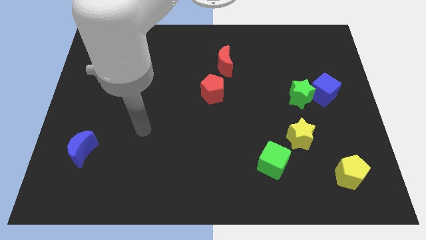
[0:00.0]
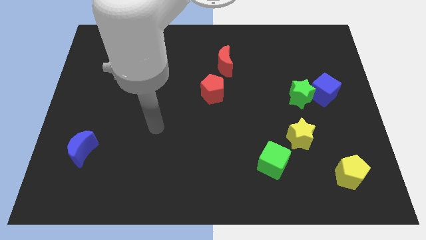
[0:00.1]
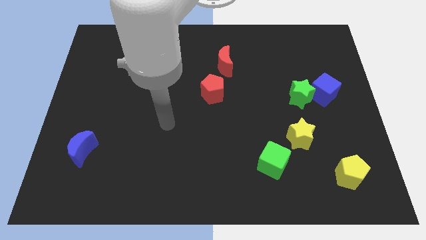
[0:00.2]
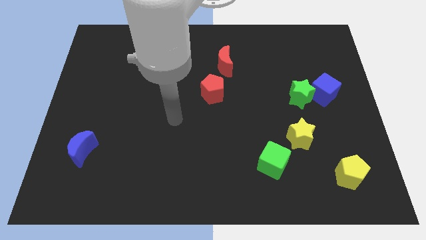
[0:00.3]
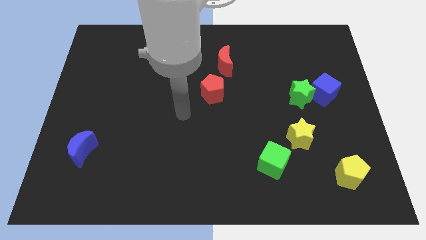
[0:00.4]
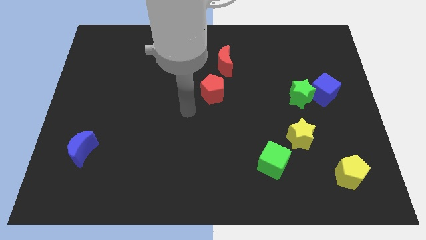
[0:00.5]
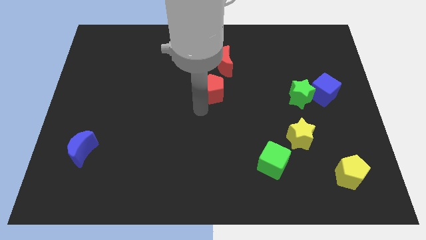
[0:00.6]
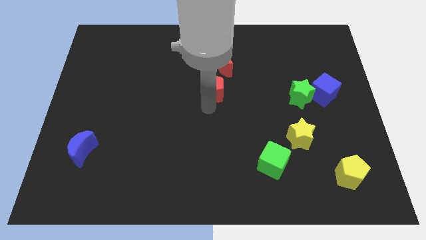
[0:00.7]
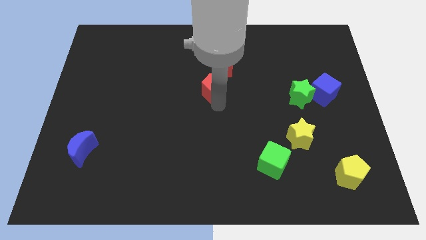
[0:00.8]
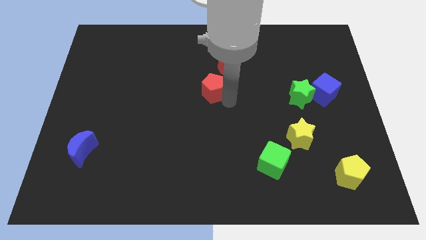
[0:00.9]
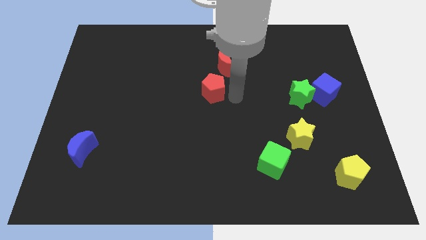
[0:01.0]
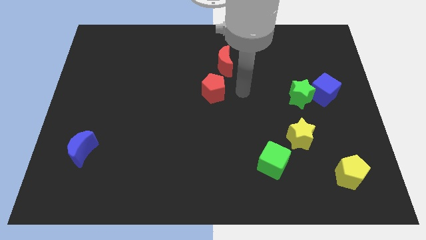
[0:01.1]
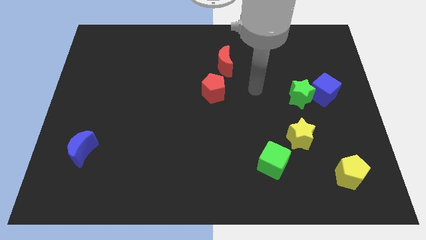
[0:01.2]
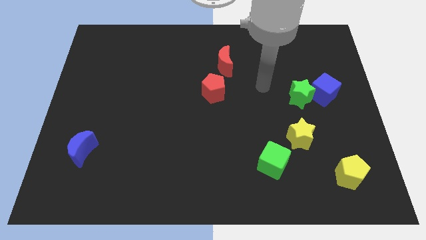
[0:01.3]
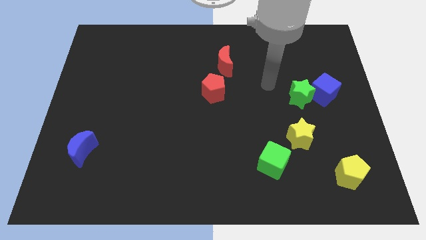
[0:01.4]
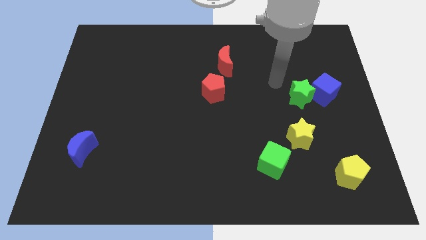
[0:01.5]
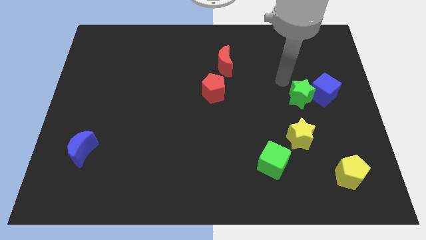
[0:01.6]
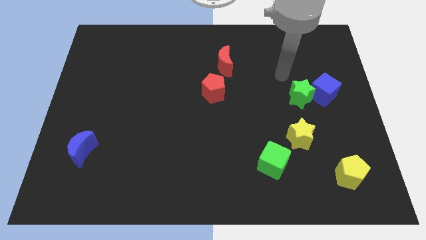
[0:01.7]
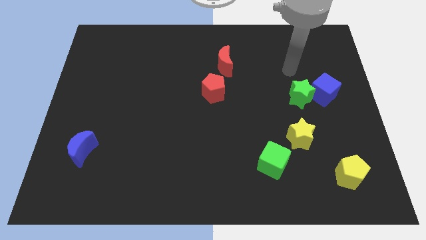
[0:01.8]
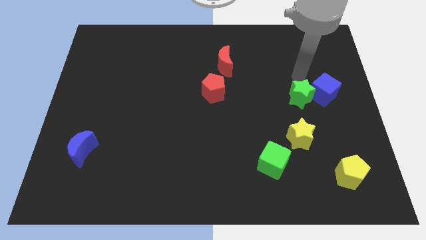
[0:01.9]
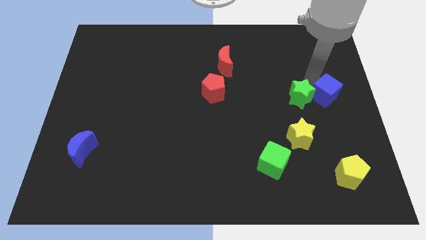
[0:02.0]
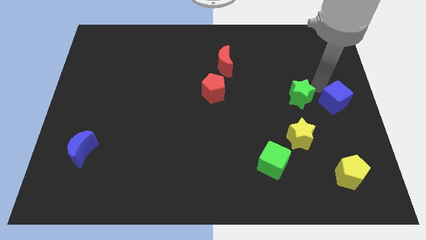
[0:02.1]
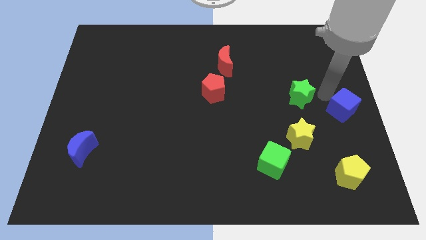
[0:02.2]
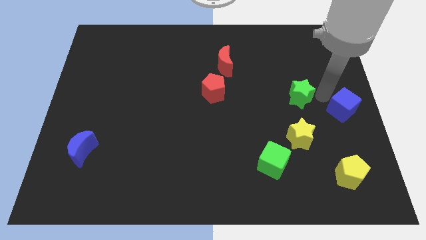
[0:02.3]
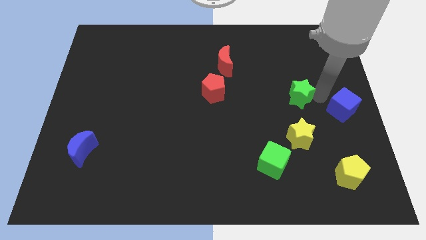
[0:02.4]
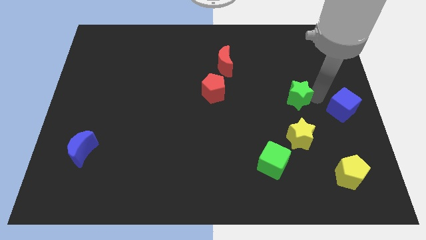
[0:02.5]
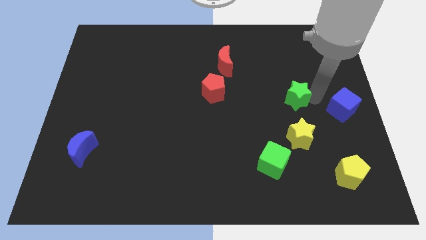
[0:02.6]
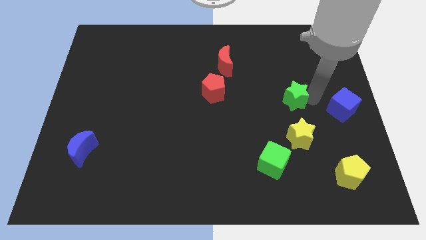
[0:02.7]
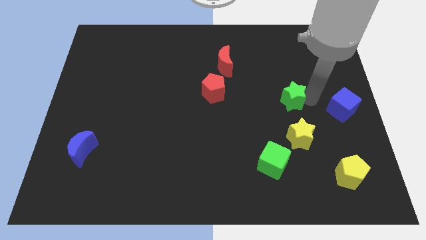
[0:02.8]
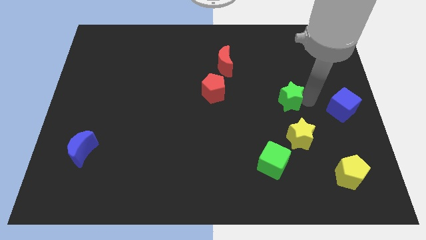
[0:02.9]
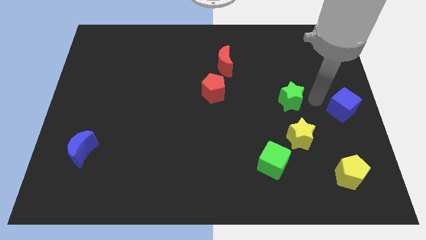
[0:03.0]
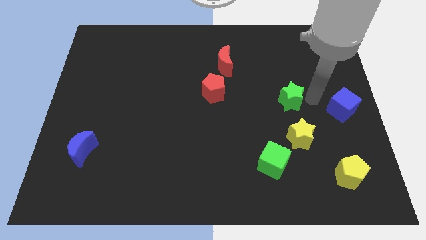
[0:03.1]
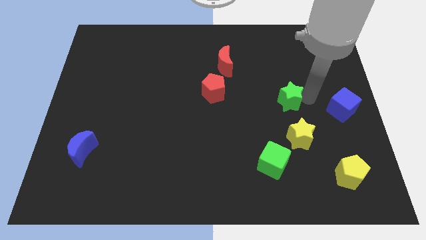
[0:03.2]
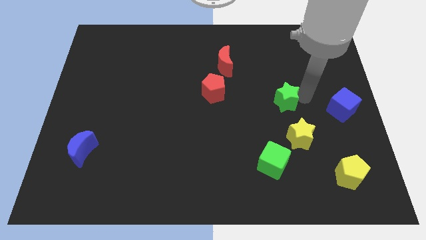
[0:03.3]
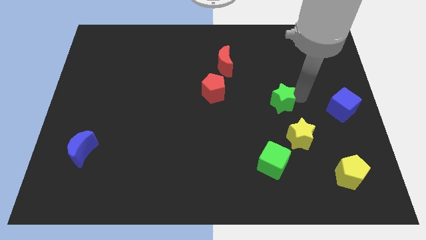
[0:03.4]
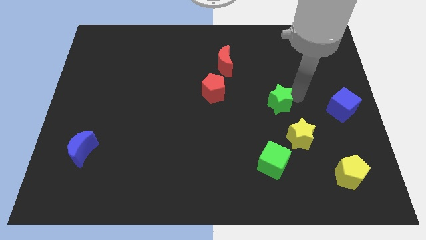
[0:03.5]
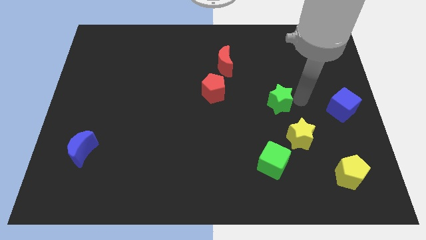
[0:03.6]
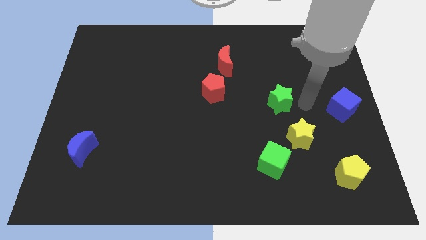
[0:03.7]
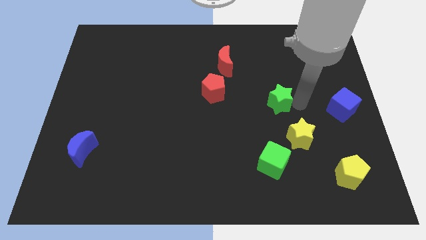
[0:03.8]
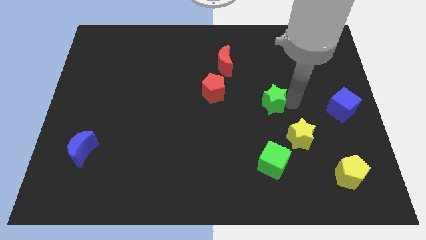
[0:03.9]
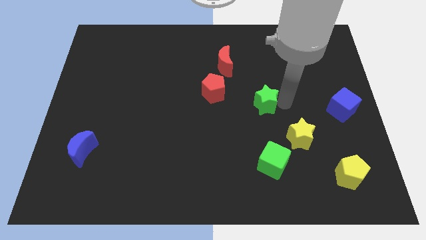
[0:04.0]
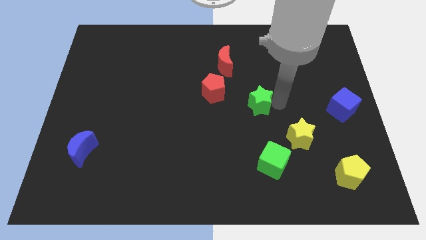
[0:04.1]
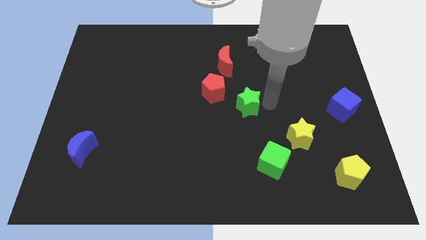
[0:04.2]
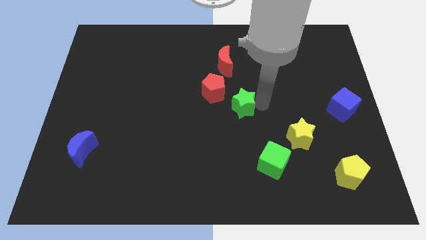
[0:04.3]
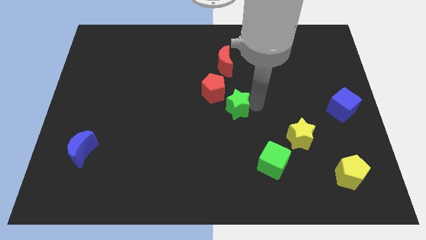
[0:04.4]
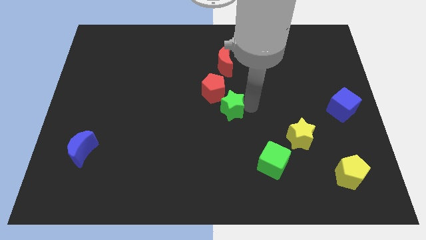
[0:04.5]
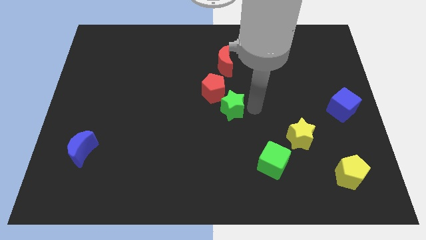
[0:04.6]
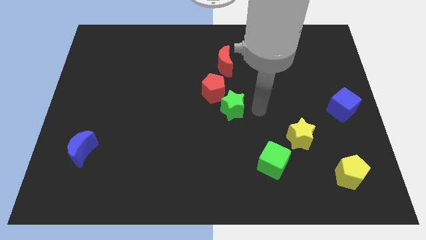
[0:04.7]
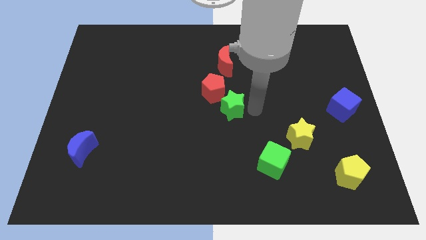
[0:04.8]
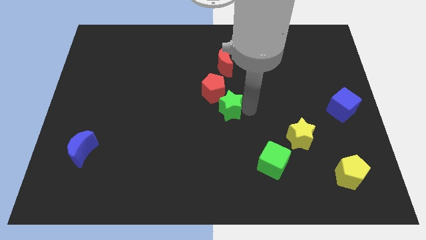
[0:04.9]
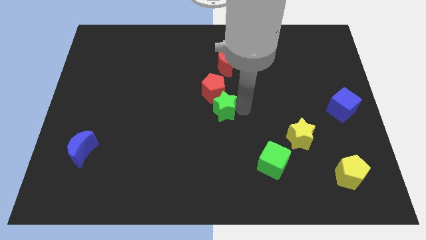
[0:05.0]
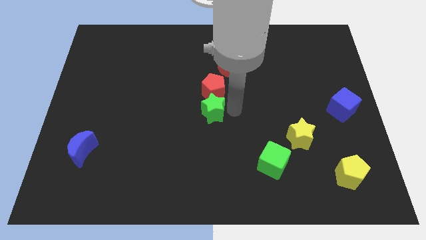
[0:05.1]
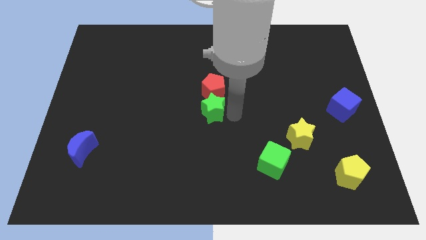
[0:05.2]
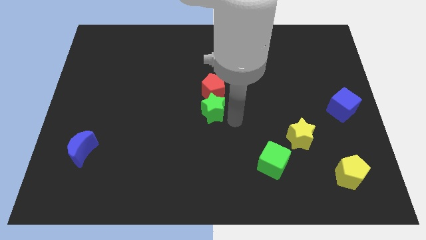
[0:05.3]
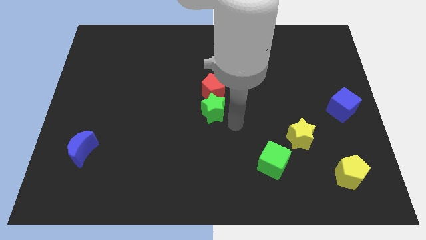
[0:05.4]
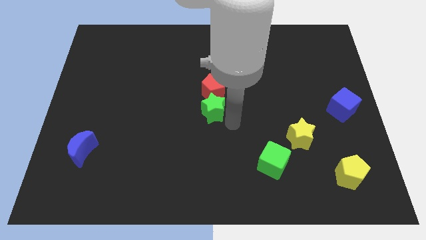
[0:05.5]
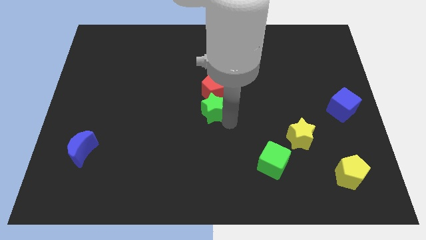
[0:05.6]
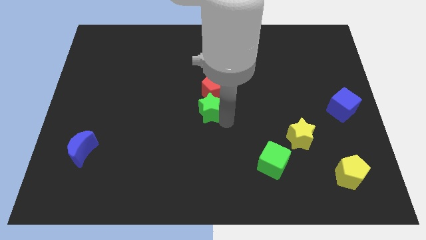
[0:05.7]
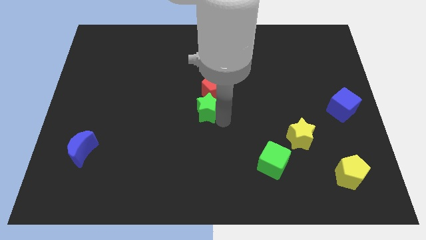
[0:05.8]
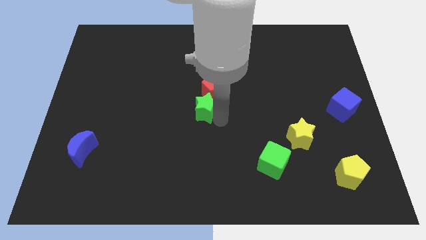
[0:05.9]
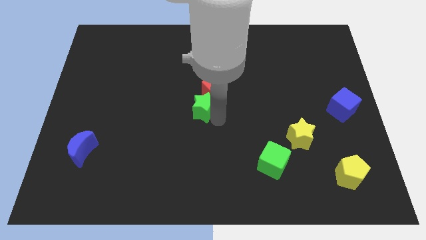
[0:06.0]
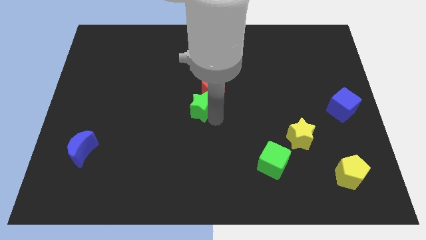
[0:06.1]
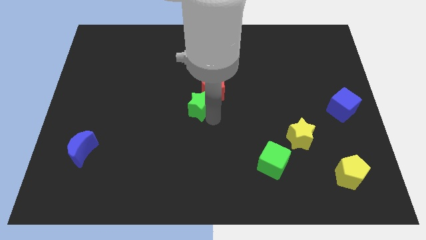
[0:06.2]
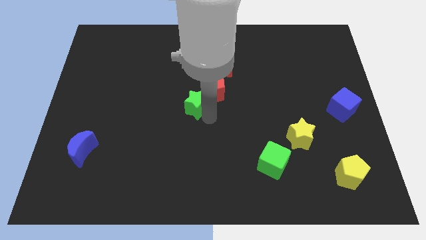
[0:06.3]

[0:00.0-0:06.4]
move the green star to the left side of the red pentagon

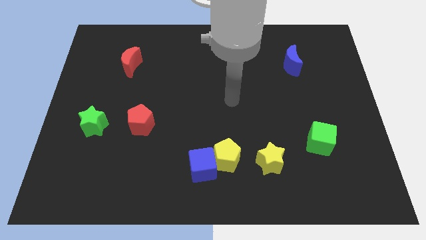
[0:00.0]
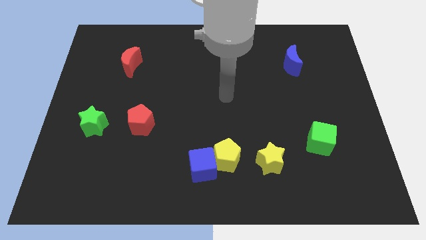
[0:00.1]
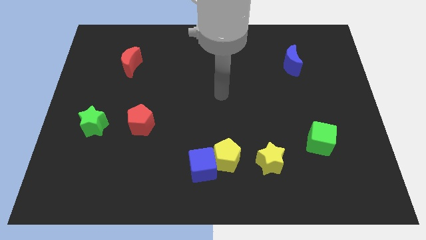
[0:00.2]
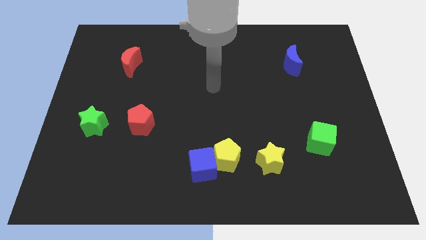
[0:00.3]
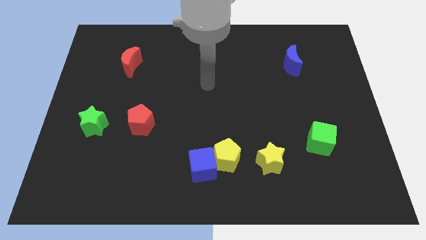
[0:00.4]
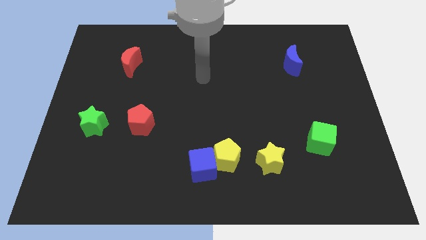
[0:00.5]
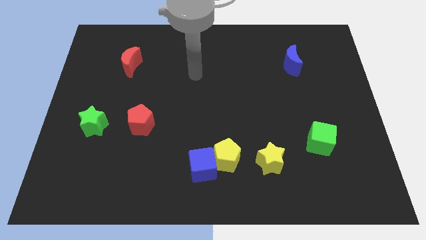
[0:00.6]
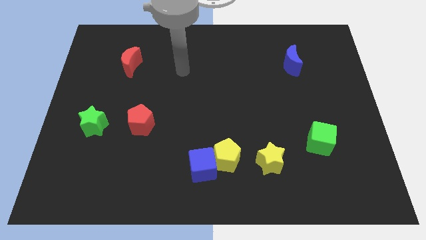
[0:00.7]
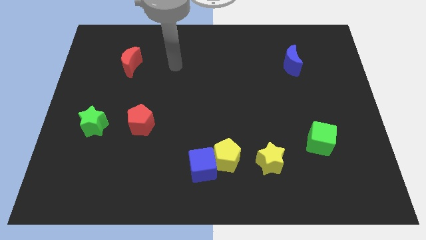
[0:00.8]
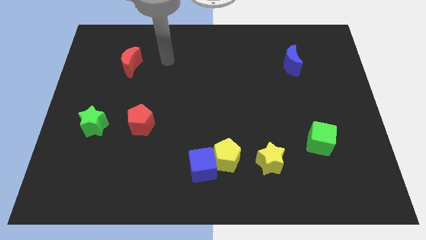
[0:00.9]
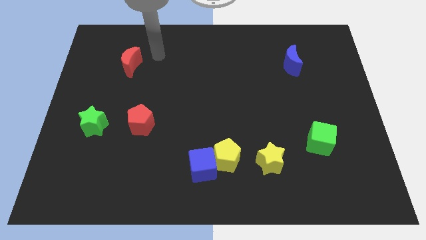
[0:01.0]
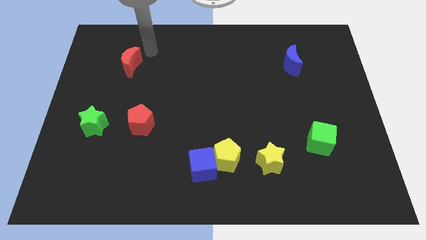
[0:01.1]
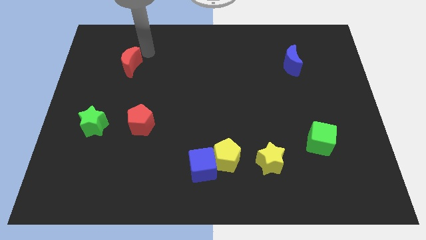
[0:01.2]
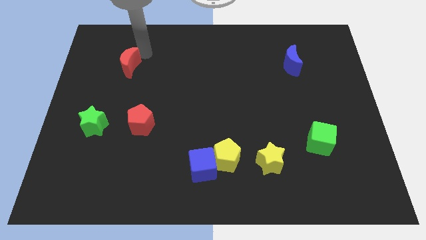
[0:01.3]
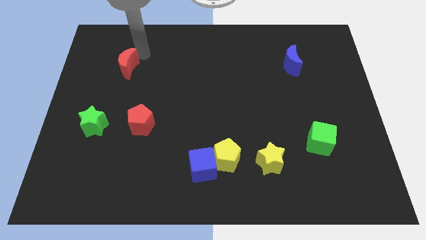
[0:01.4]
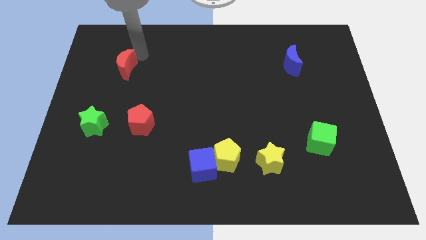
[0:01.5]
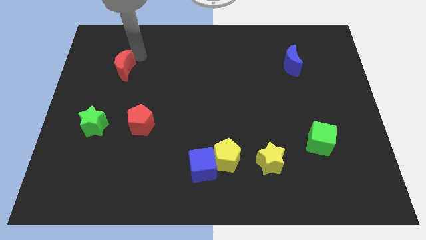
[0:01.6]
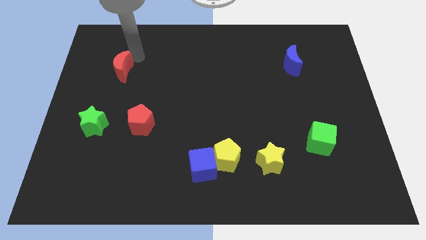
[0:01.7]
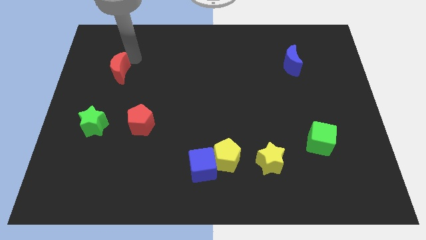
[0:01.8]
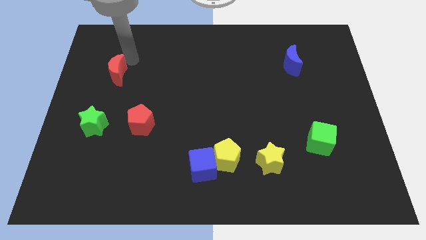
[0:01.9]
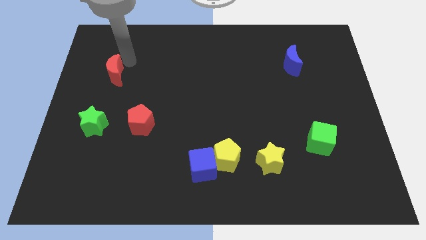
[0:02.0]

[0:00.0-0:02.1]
push the red moon above the green star
